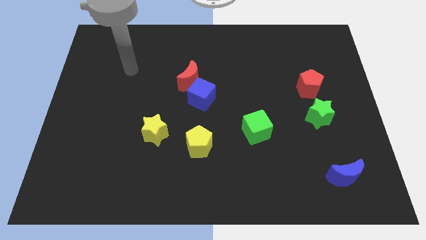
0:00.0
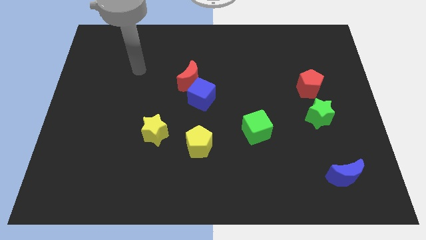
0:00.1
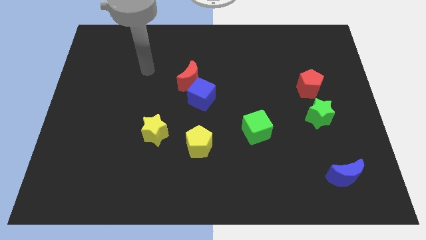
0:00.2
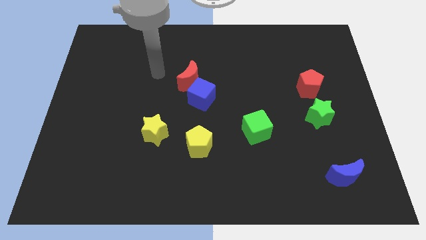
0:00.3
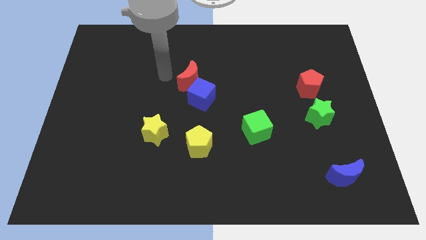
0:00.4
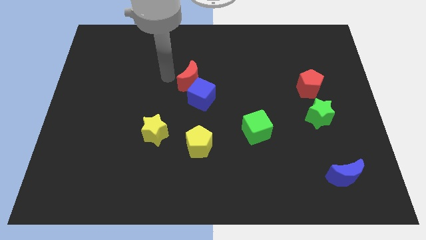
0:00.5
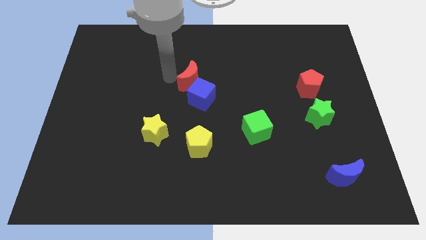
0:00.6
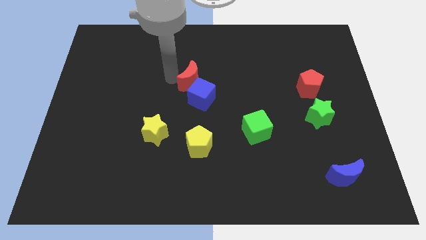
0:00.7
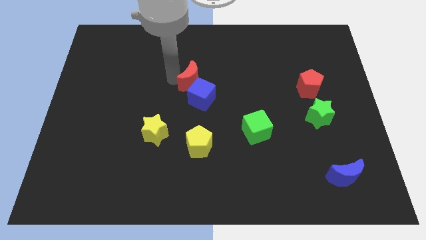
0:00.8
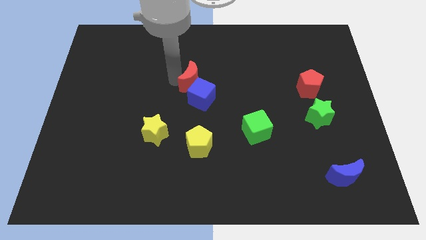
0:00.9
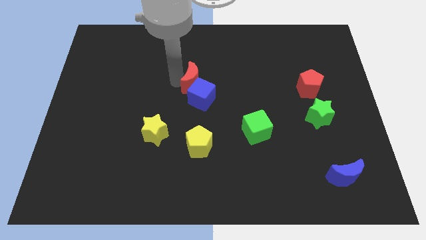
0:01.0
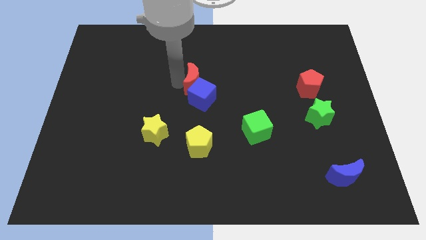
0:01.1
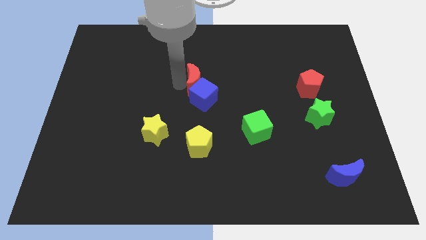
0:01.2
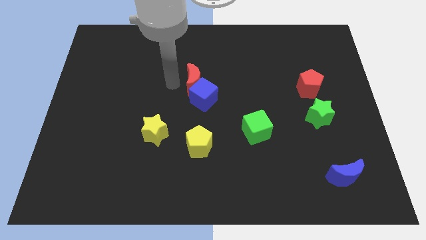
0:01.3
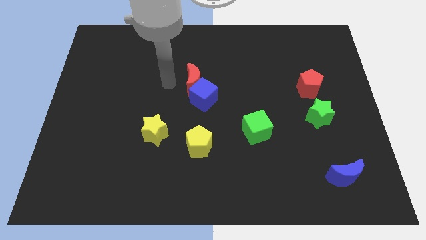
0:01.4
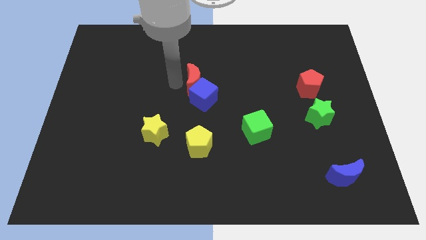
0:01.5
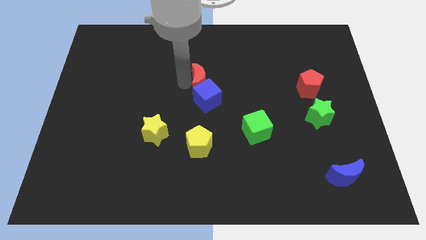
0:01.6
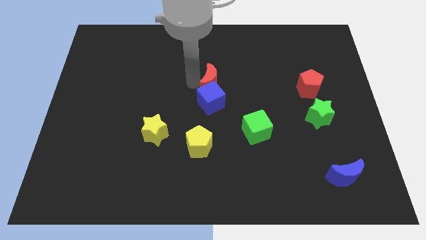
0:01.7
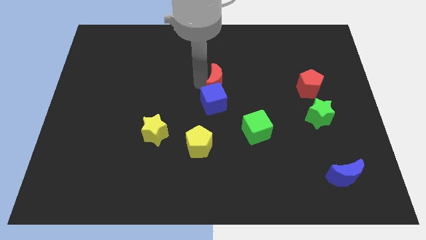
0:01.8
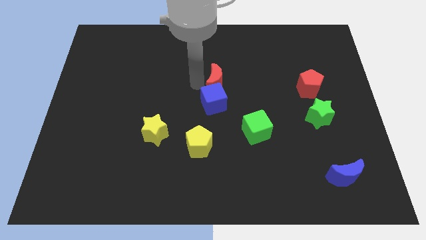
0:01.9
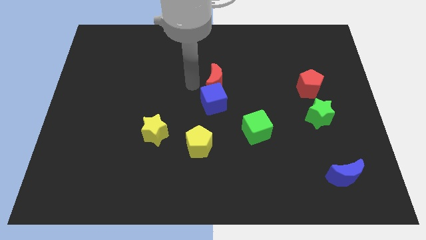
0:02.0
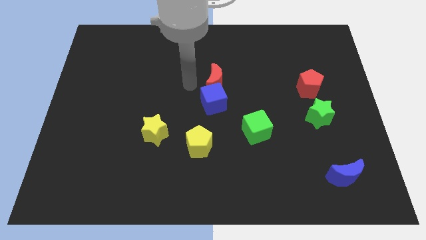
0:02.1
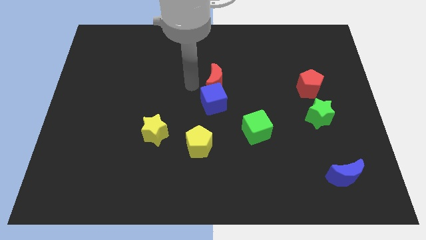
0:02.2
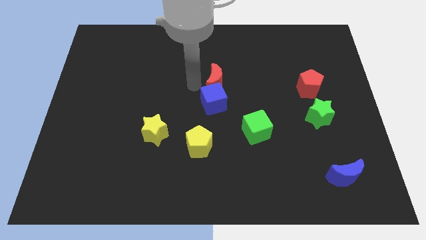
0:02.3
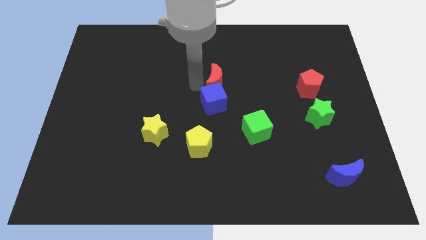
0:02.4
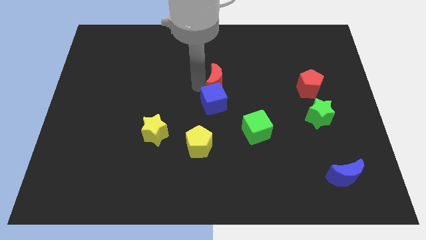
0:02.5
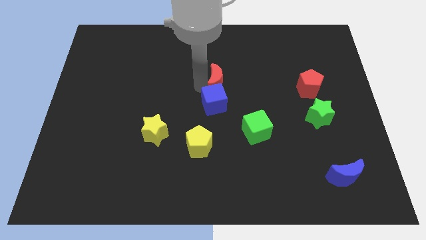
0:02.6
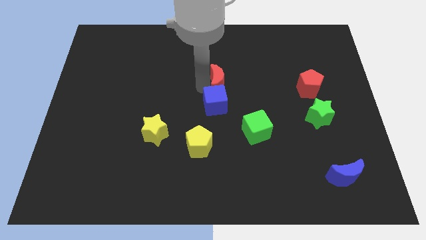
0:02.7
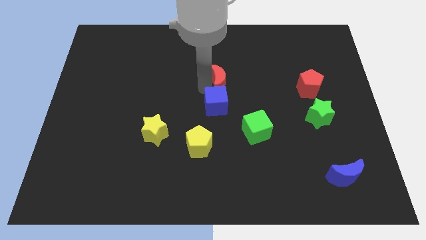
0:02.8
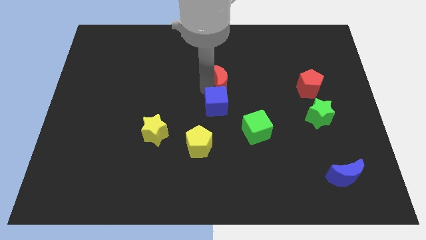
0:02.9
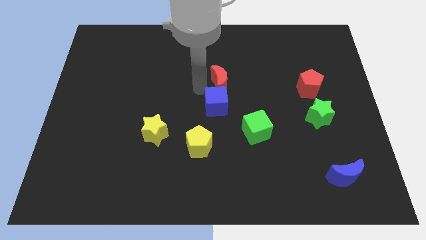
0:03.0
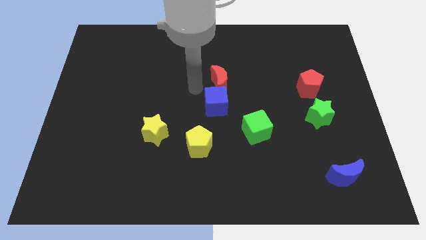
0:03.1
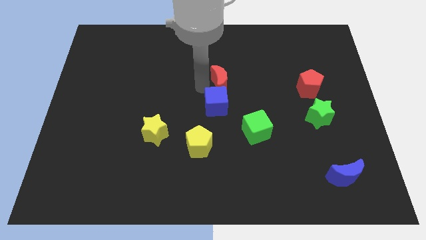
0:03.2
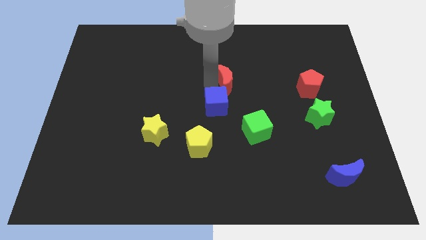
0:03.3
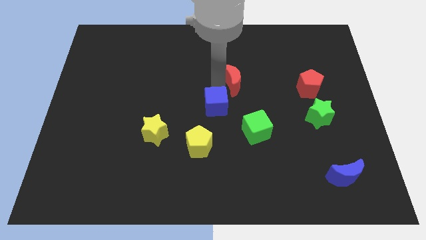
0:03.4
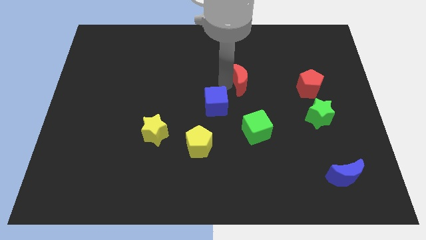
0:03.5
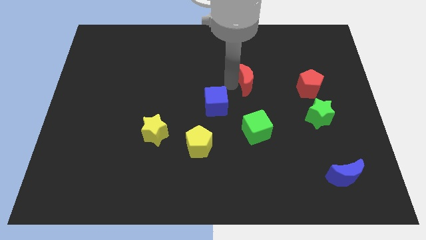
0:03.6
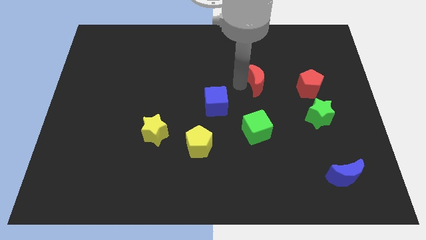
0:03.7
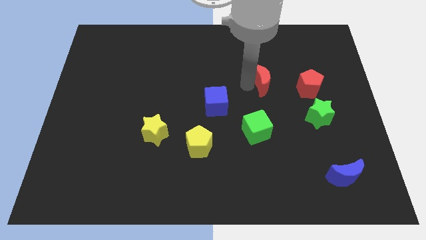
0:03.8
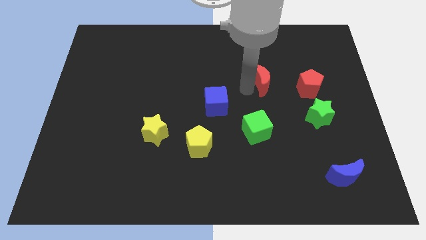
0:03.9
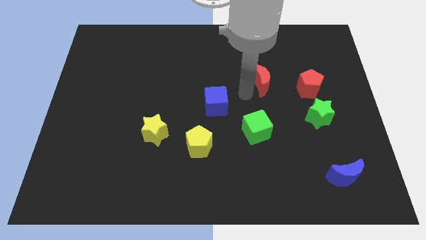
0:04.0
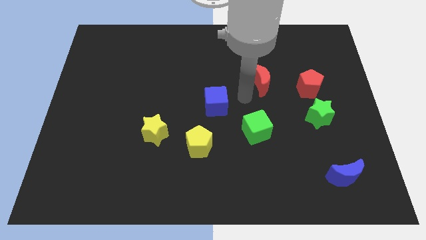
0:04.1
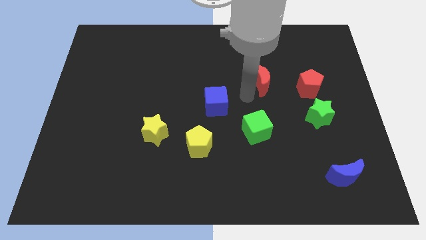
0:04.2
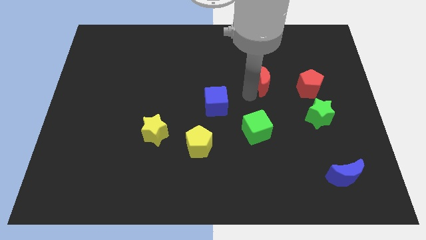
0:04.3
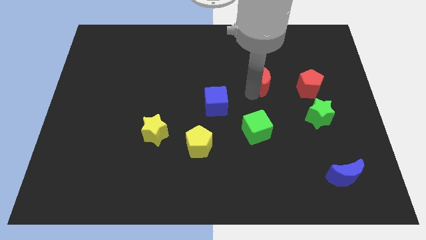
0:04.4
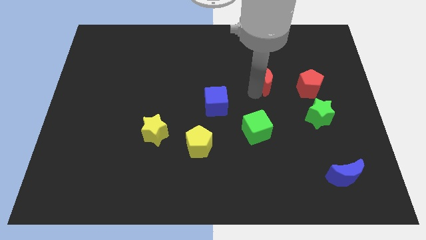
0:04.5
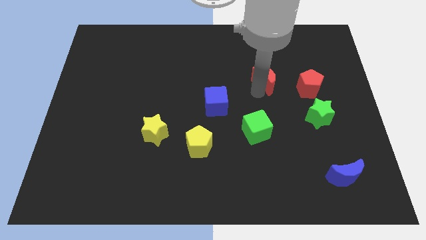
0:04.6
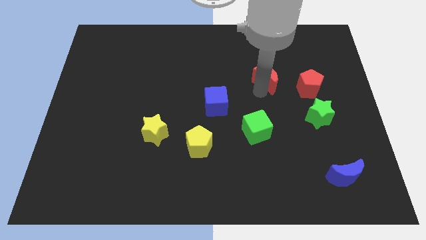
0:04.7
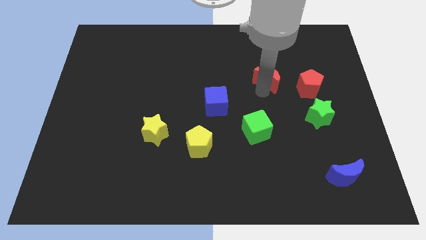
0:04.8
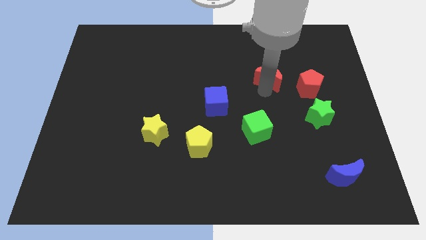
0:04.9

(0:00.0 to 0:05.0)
slide the red moon to the right

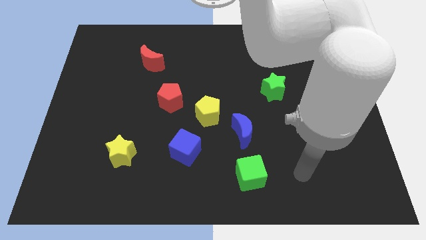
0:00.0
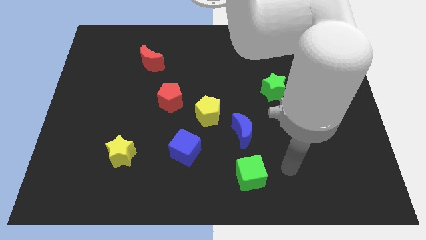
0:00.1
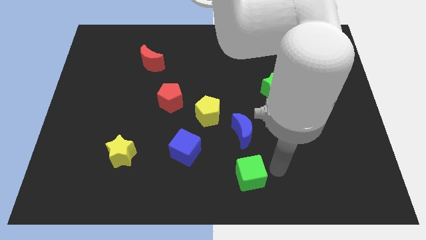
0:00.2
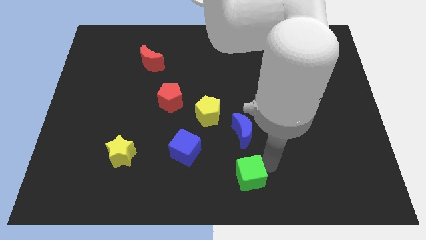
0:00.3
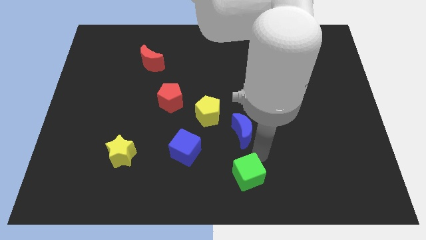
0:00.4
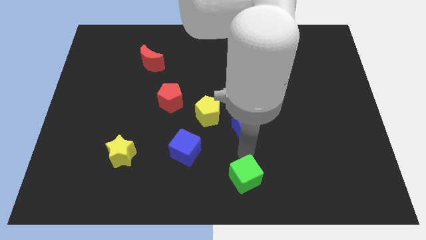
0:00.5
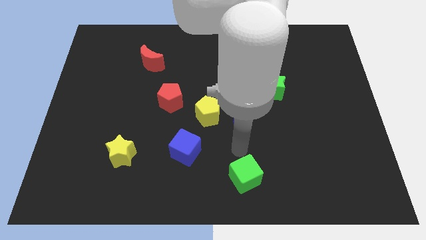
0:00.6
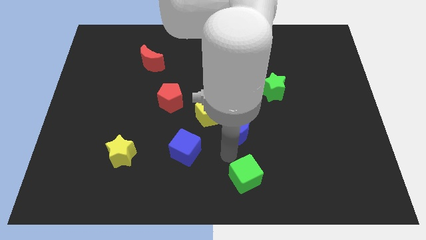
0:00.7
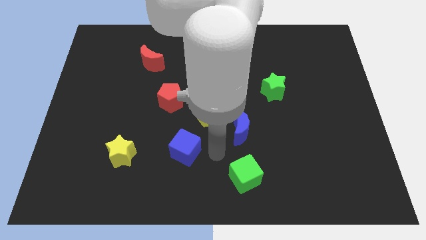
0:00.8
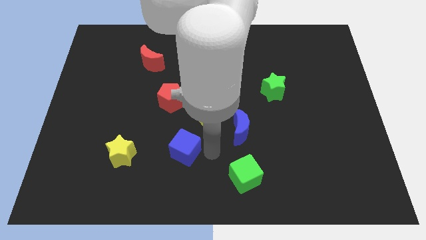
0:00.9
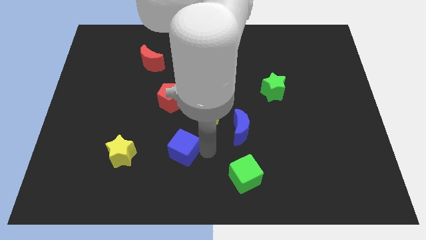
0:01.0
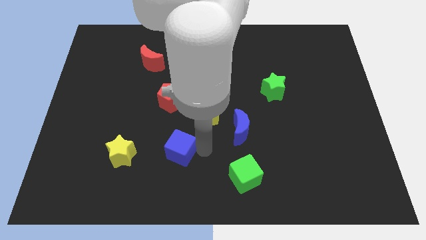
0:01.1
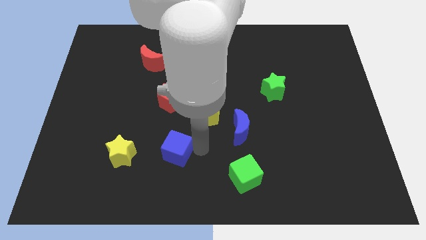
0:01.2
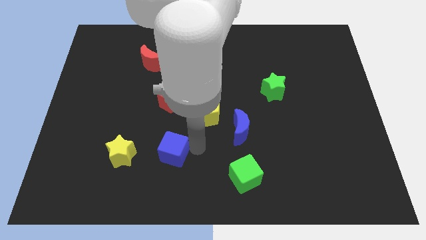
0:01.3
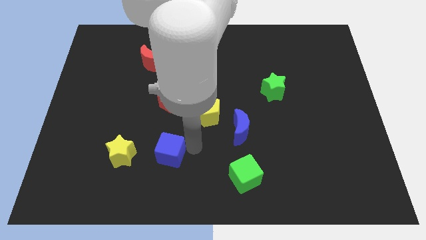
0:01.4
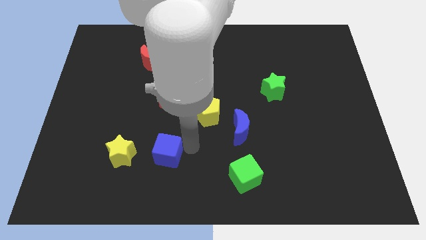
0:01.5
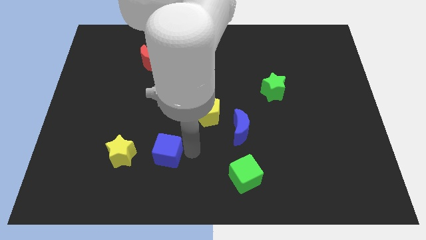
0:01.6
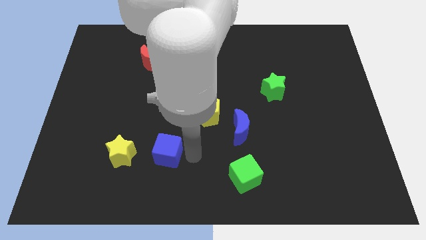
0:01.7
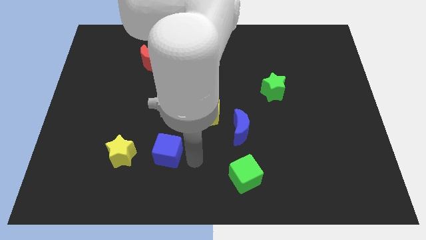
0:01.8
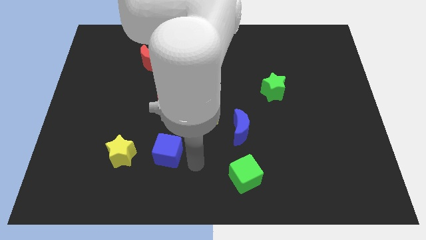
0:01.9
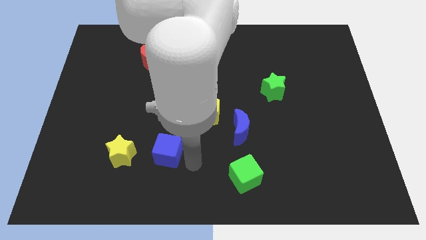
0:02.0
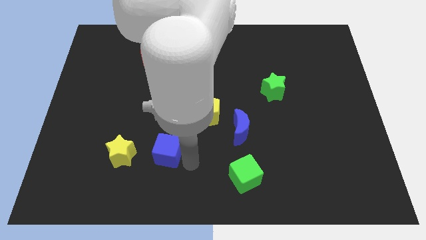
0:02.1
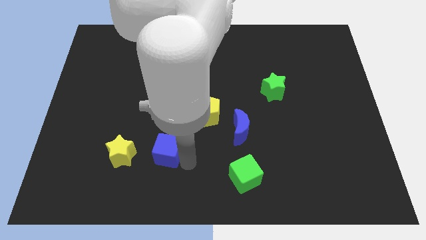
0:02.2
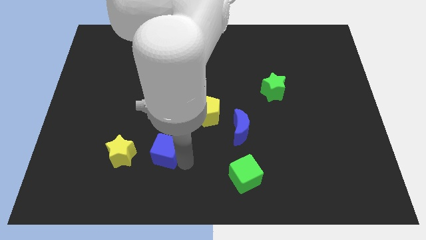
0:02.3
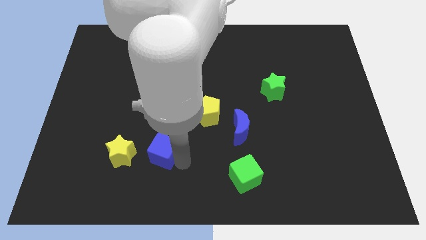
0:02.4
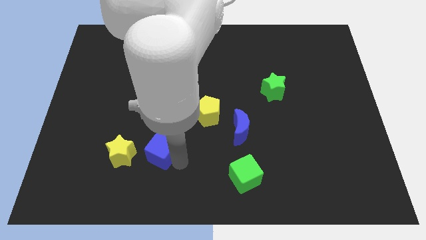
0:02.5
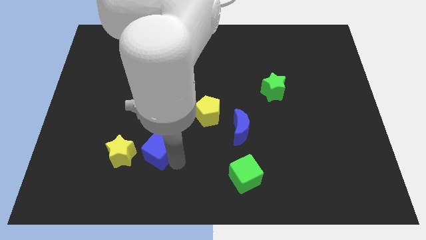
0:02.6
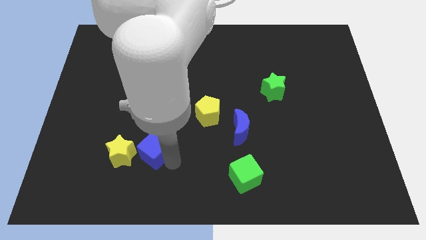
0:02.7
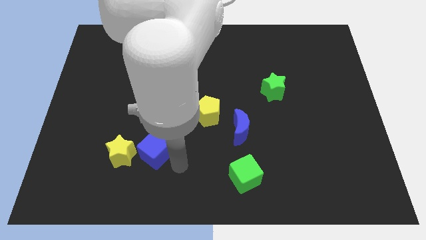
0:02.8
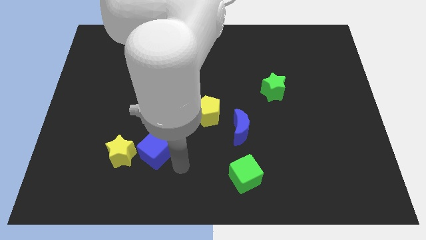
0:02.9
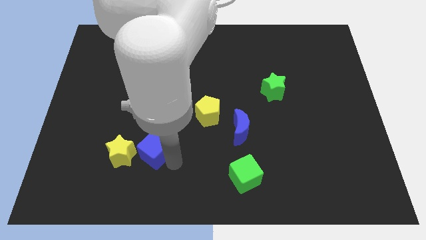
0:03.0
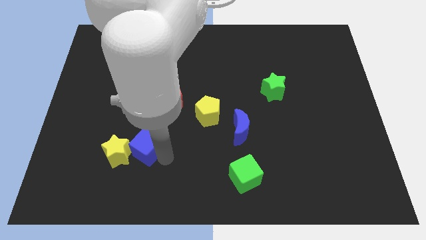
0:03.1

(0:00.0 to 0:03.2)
slightly move the blue cube to the left
